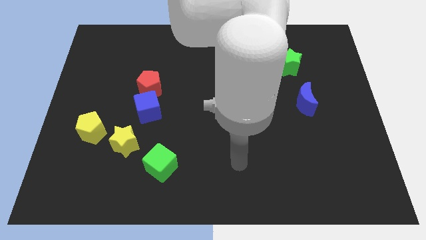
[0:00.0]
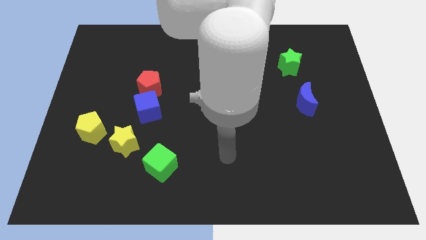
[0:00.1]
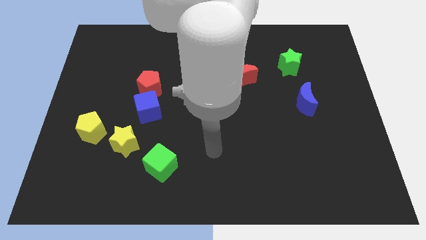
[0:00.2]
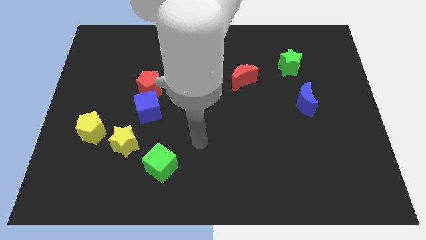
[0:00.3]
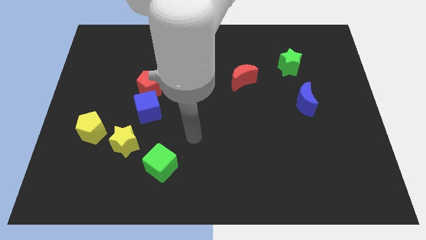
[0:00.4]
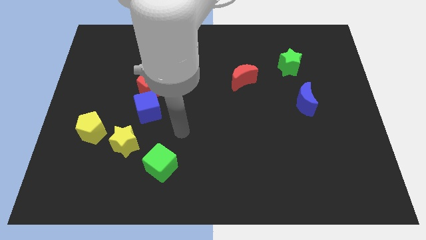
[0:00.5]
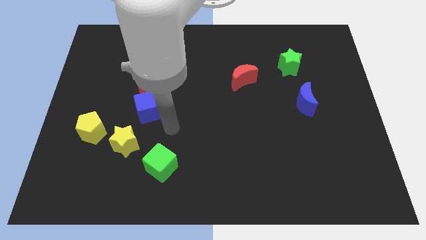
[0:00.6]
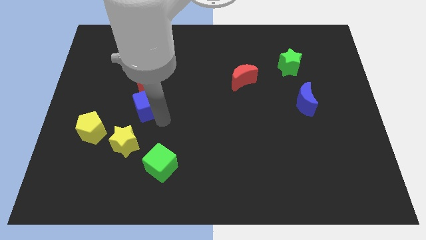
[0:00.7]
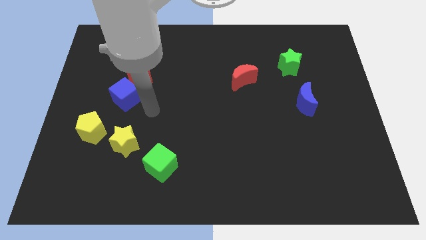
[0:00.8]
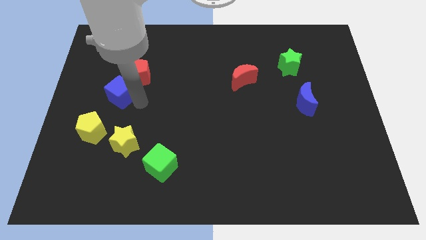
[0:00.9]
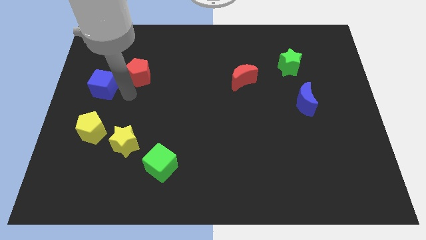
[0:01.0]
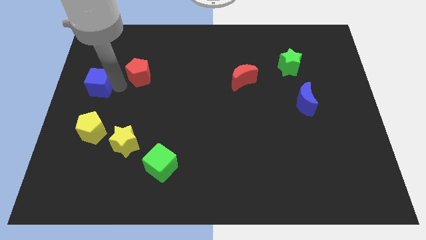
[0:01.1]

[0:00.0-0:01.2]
pull the red pentagon apart from the blue cube

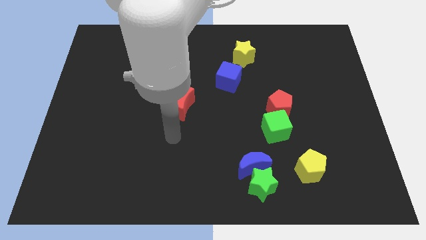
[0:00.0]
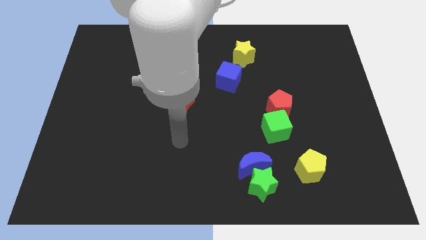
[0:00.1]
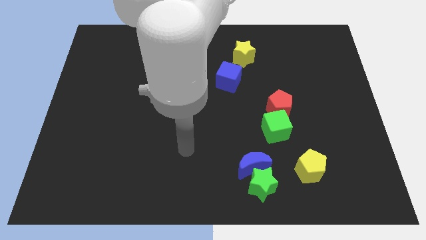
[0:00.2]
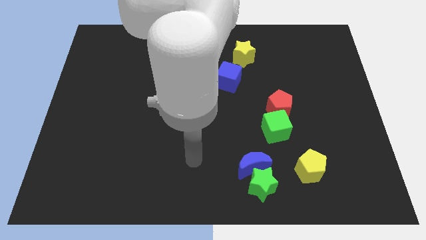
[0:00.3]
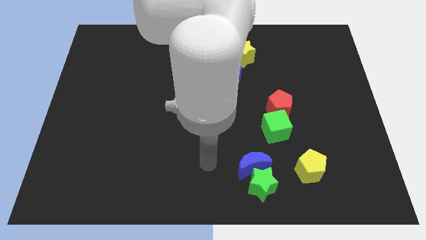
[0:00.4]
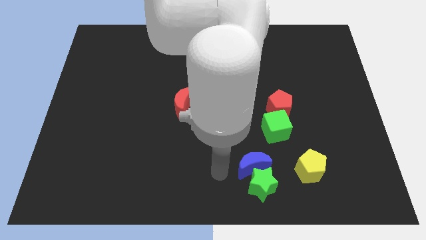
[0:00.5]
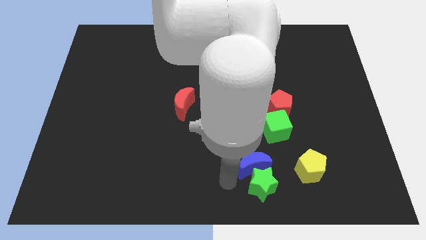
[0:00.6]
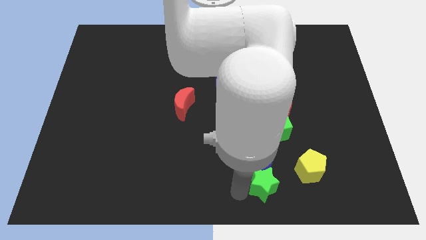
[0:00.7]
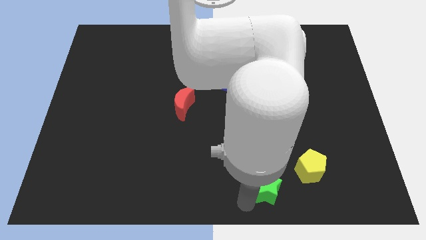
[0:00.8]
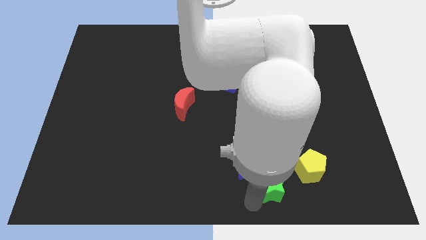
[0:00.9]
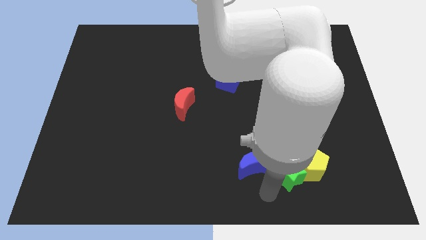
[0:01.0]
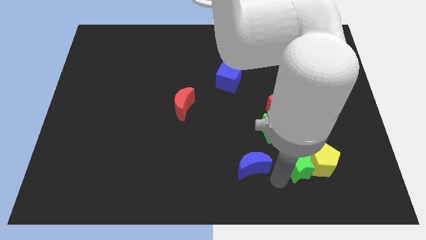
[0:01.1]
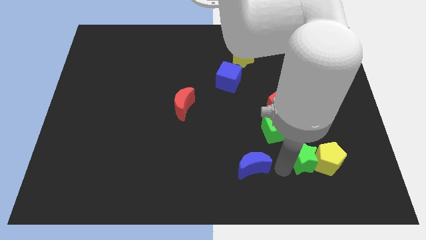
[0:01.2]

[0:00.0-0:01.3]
separate the blue moon from the green star

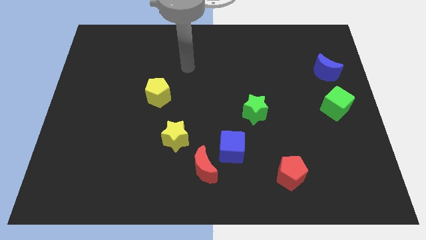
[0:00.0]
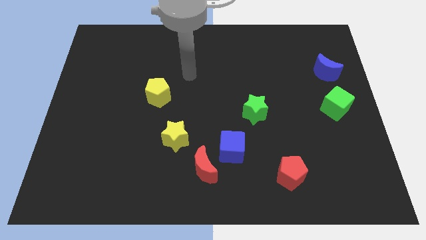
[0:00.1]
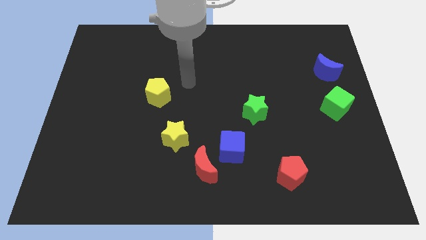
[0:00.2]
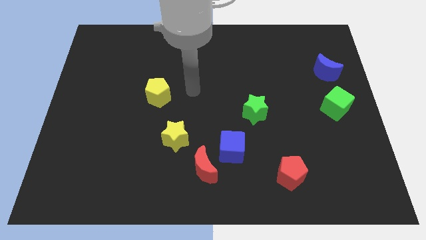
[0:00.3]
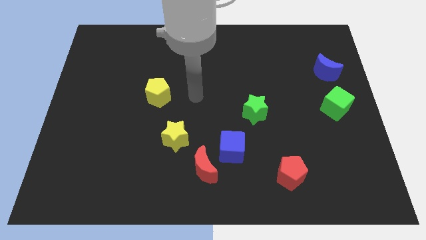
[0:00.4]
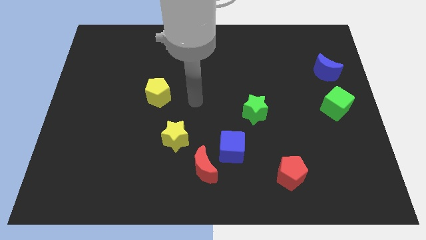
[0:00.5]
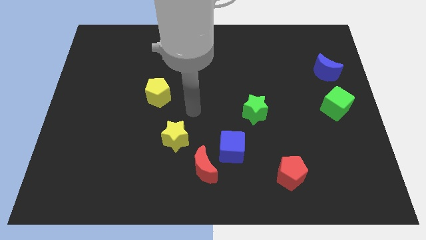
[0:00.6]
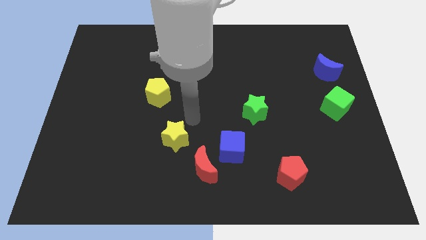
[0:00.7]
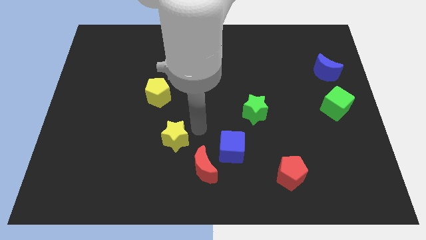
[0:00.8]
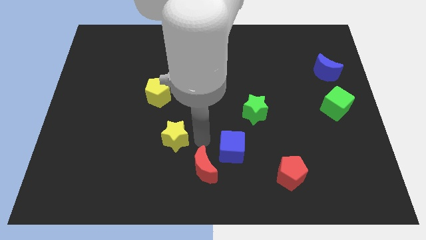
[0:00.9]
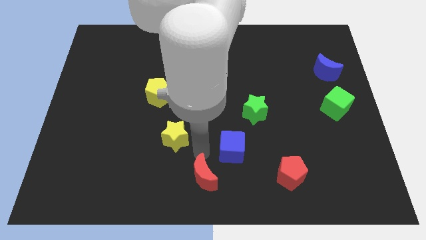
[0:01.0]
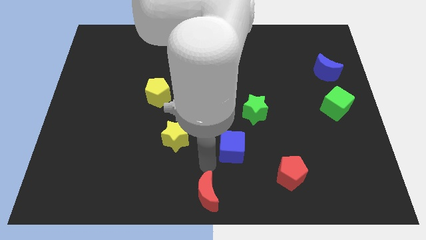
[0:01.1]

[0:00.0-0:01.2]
separate the blue cube from the red moon

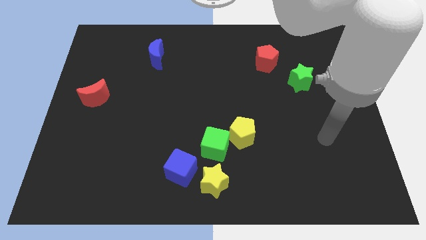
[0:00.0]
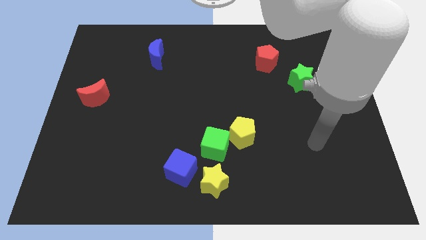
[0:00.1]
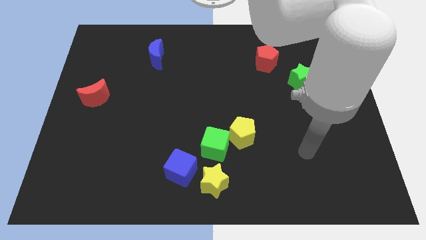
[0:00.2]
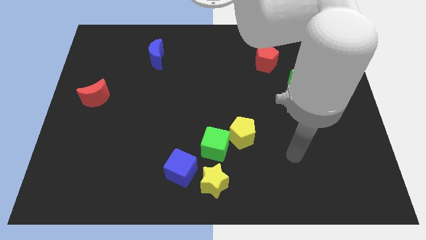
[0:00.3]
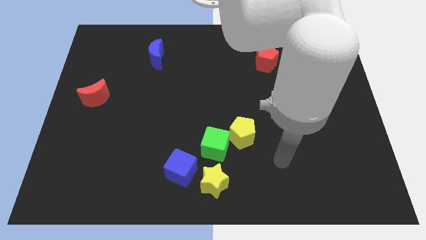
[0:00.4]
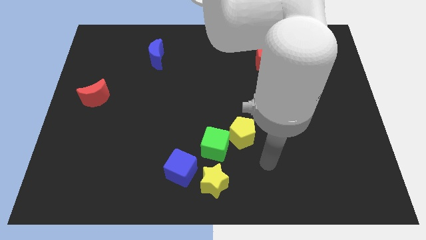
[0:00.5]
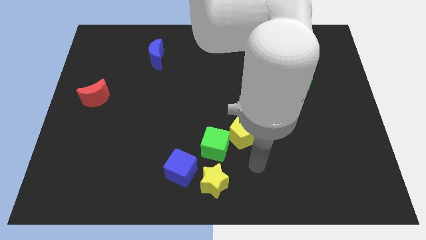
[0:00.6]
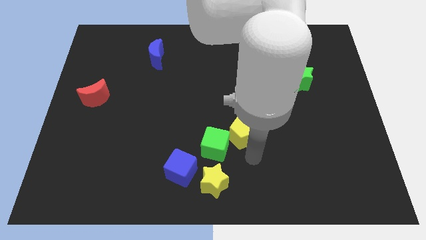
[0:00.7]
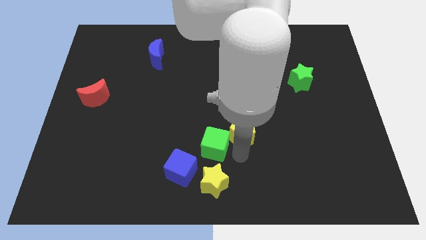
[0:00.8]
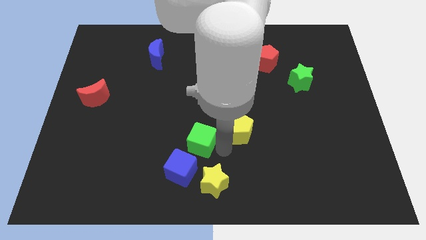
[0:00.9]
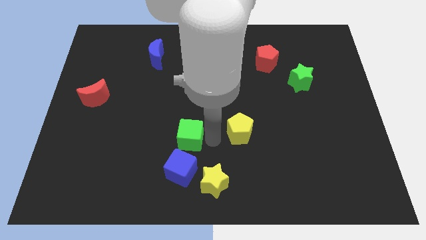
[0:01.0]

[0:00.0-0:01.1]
move the yellow pentagon away from the green cube

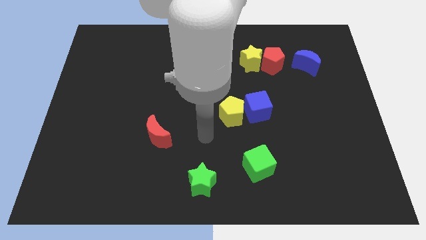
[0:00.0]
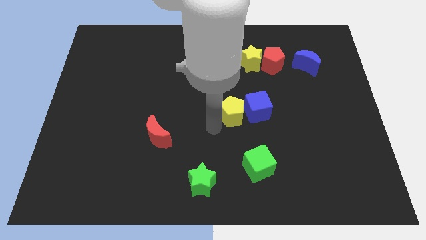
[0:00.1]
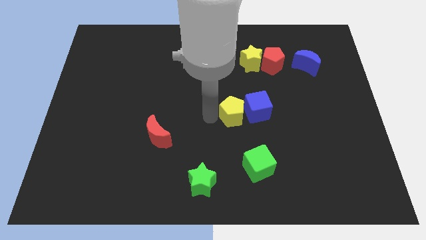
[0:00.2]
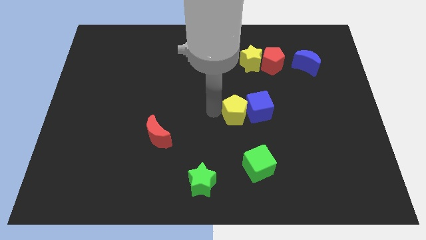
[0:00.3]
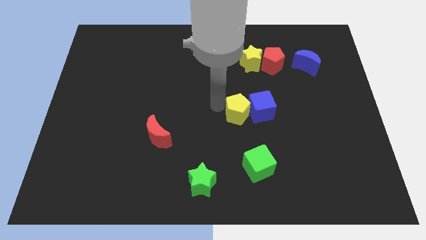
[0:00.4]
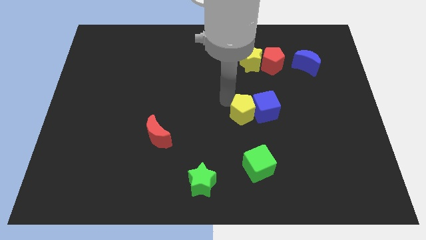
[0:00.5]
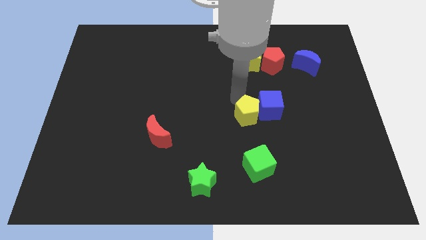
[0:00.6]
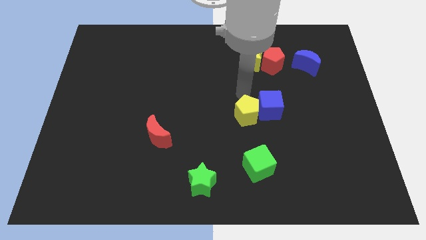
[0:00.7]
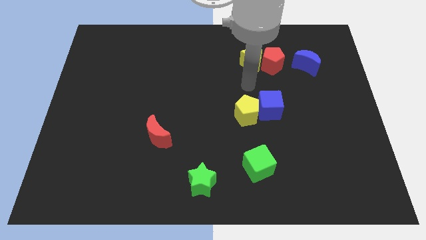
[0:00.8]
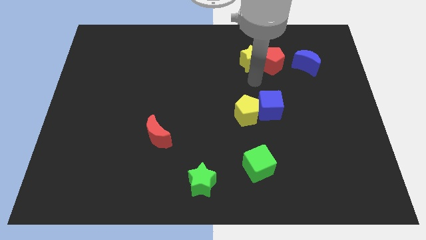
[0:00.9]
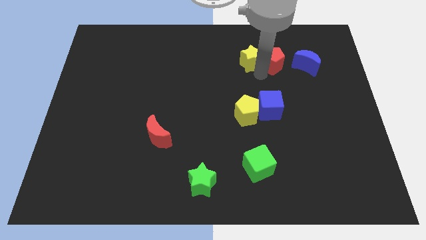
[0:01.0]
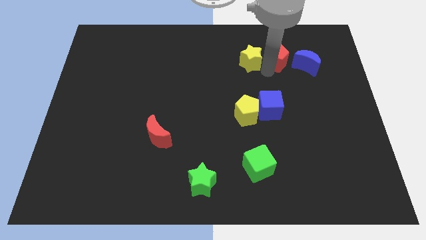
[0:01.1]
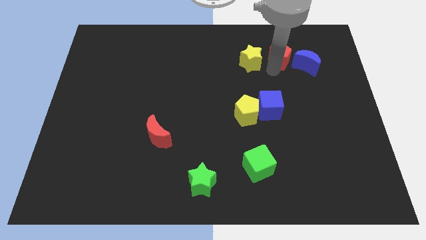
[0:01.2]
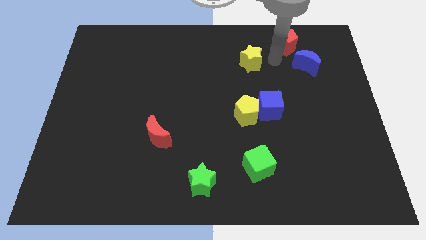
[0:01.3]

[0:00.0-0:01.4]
pull the yellow star apart from the red pentagon

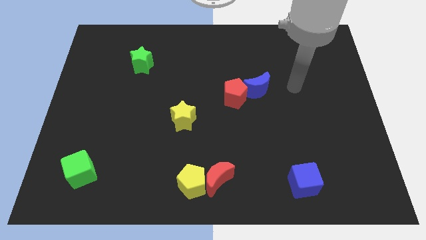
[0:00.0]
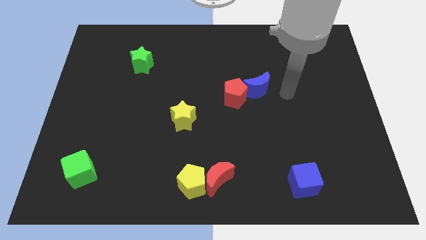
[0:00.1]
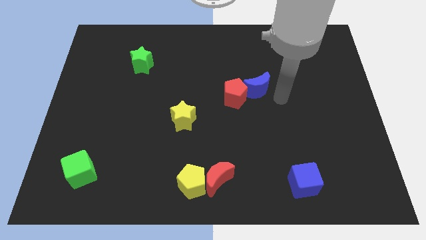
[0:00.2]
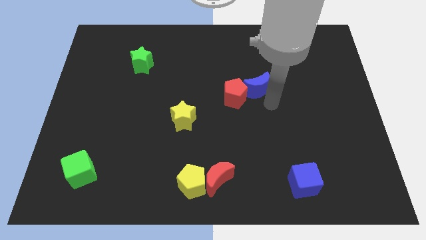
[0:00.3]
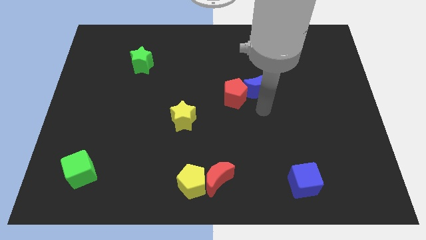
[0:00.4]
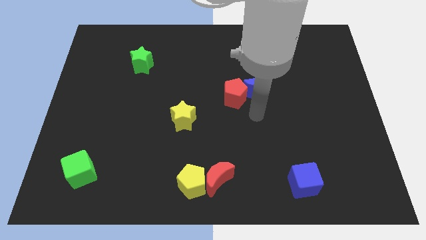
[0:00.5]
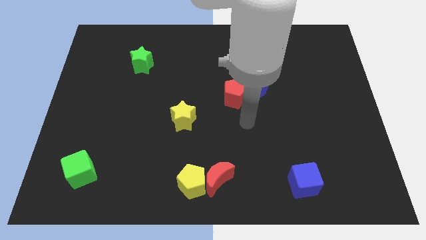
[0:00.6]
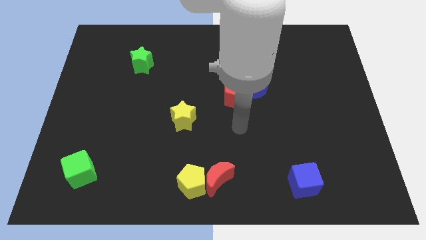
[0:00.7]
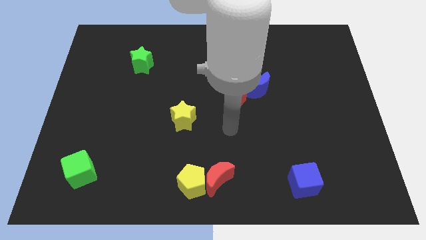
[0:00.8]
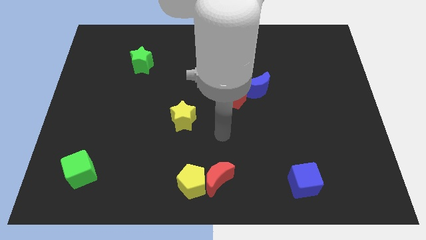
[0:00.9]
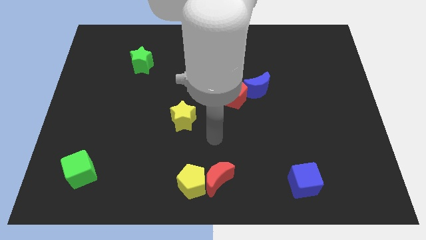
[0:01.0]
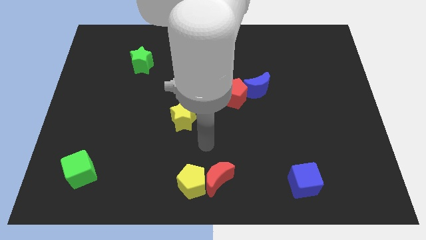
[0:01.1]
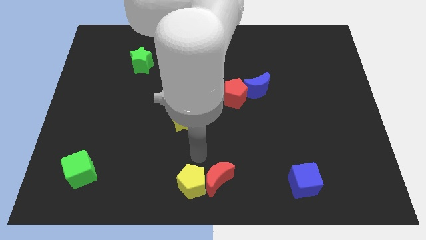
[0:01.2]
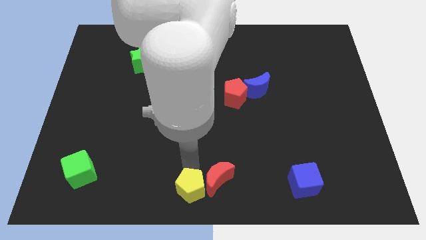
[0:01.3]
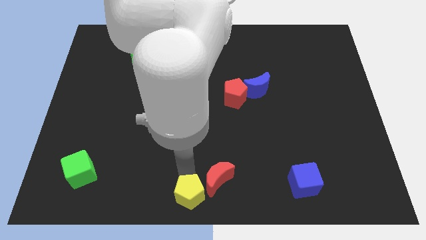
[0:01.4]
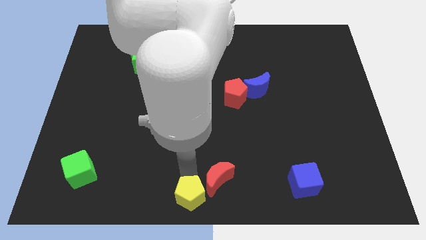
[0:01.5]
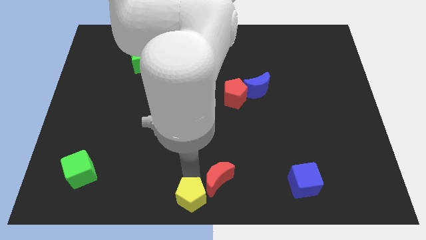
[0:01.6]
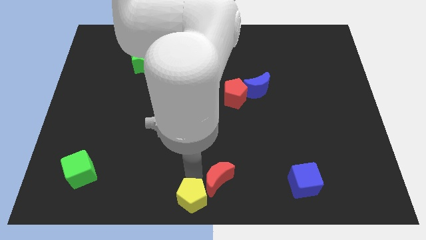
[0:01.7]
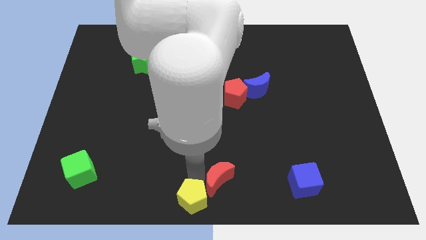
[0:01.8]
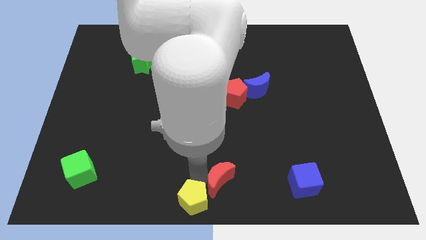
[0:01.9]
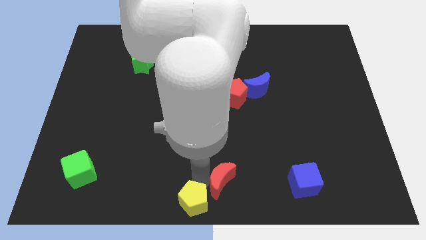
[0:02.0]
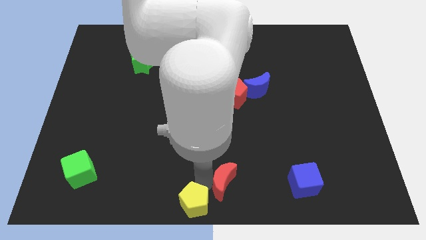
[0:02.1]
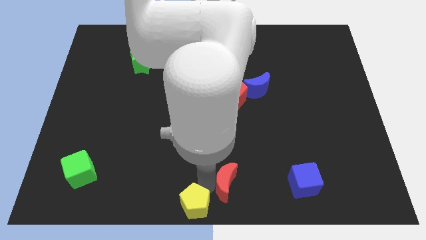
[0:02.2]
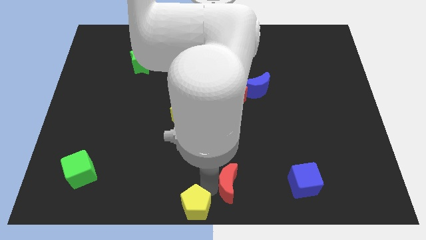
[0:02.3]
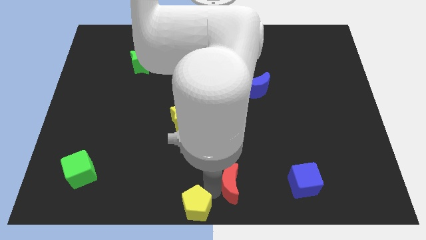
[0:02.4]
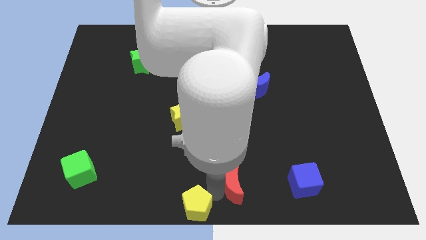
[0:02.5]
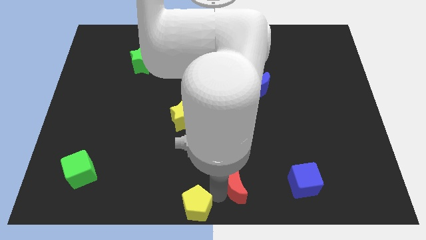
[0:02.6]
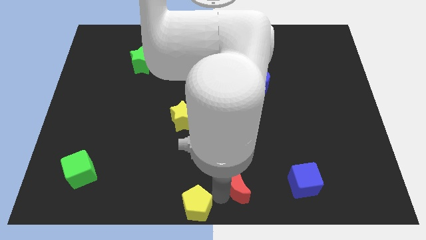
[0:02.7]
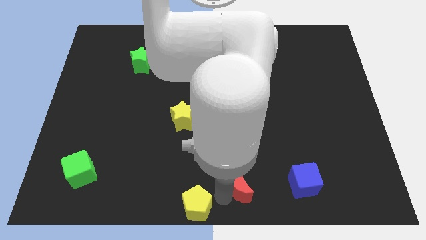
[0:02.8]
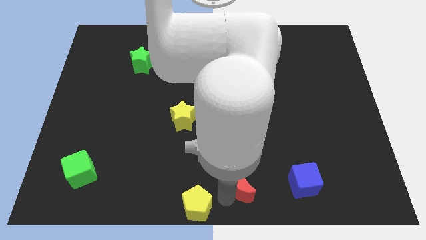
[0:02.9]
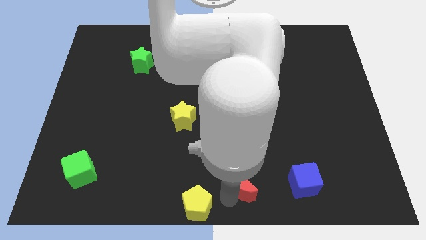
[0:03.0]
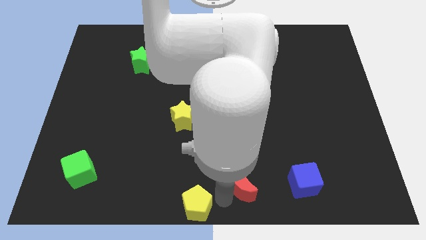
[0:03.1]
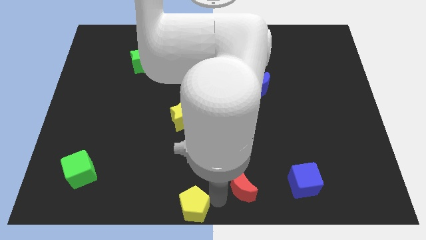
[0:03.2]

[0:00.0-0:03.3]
separate the red moon from the yellow pentagon
